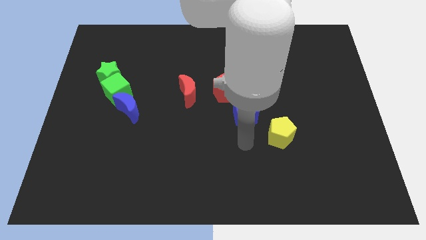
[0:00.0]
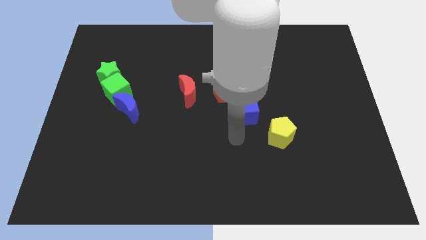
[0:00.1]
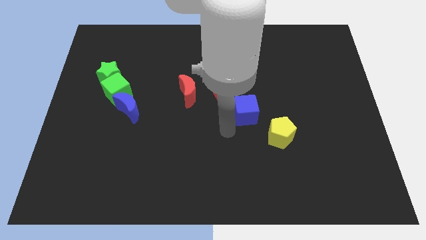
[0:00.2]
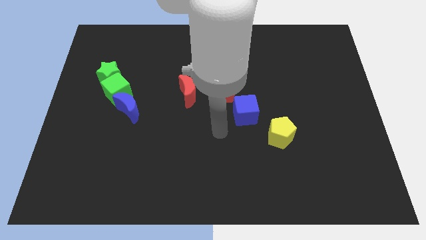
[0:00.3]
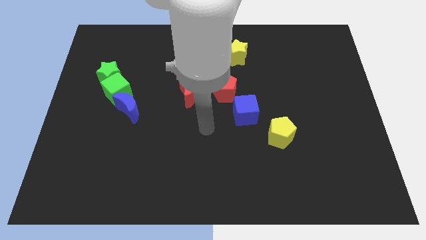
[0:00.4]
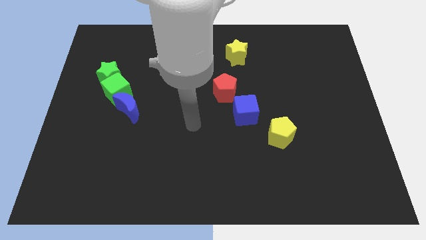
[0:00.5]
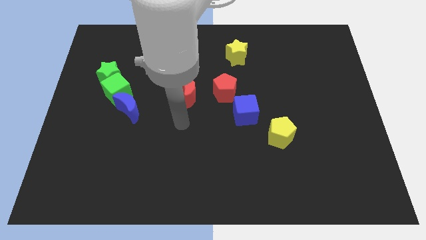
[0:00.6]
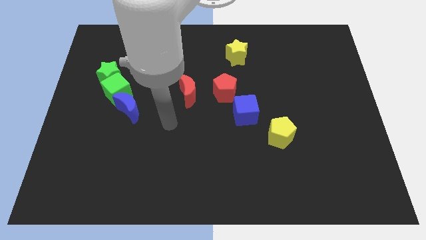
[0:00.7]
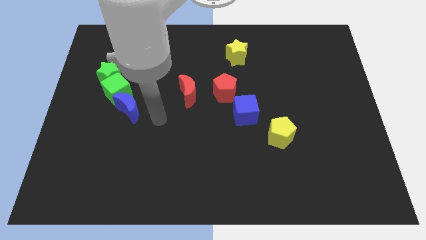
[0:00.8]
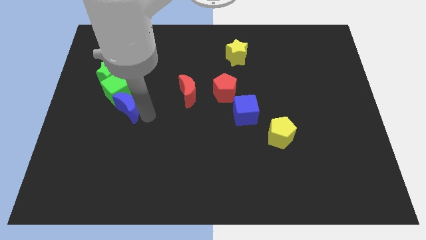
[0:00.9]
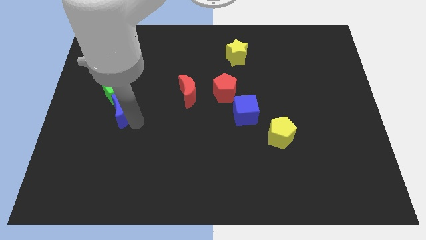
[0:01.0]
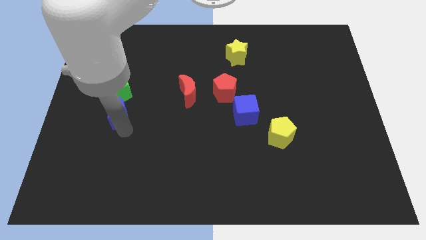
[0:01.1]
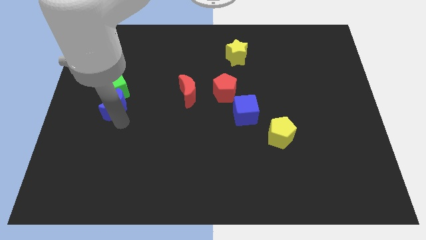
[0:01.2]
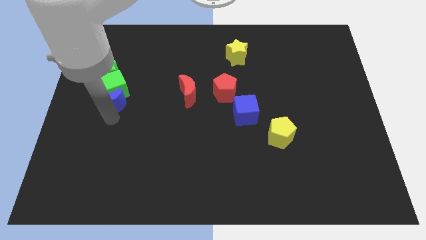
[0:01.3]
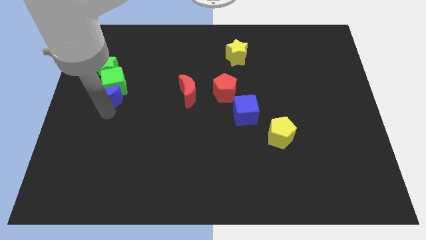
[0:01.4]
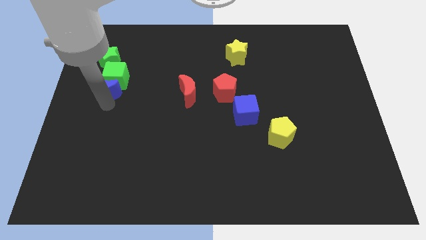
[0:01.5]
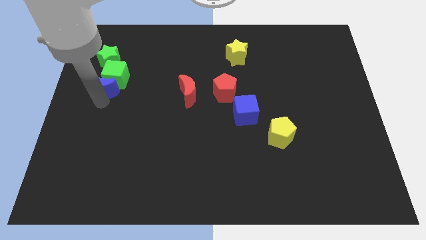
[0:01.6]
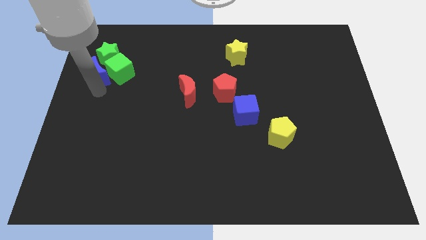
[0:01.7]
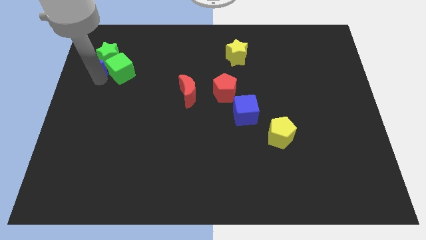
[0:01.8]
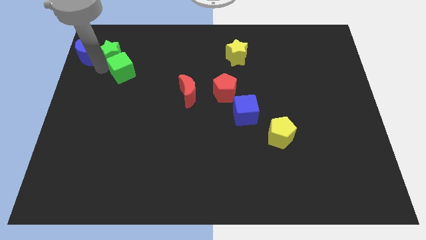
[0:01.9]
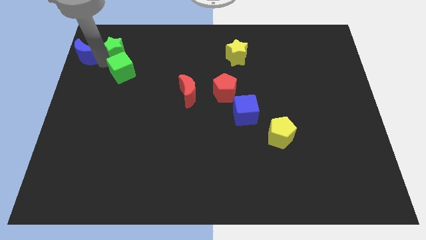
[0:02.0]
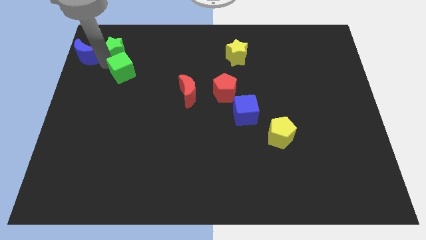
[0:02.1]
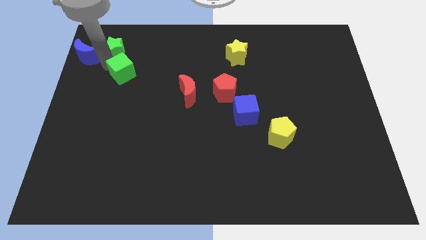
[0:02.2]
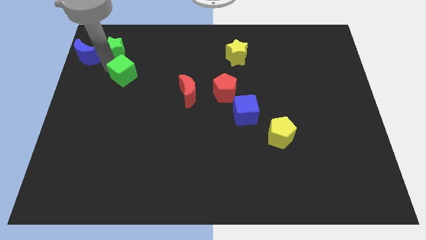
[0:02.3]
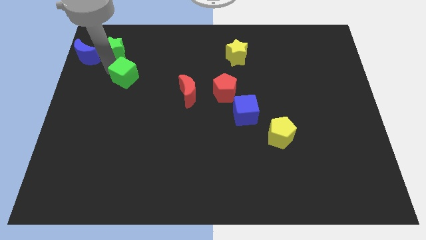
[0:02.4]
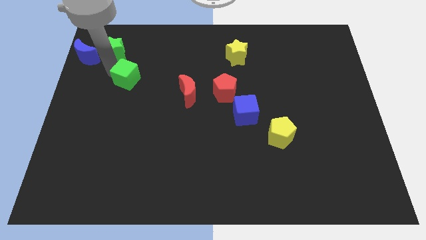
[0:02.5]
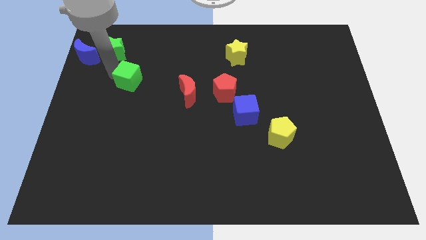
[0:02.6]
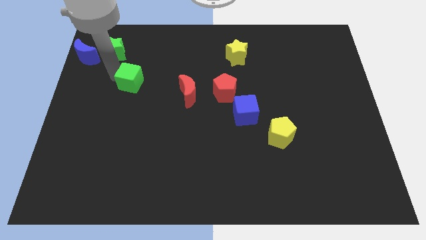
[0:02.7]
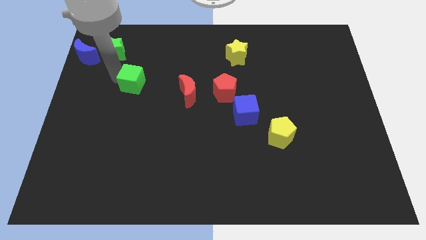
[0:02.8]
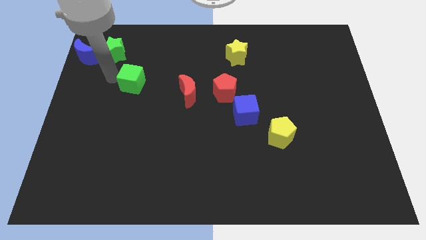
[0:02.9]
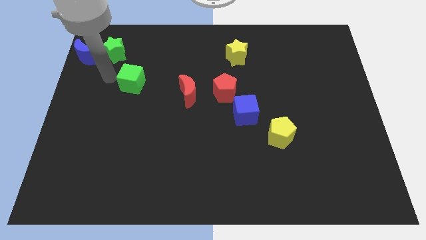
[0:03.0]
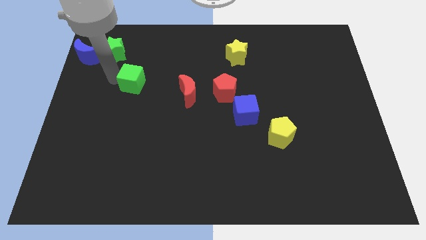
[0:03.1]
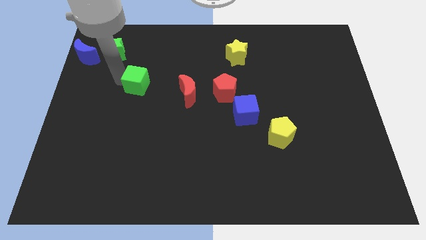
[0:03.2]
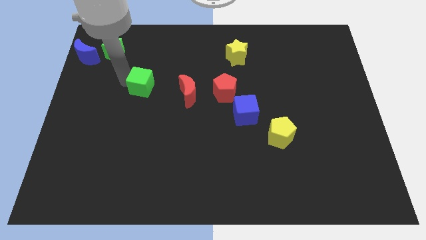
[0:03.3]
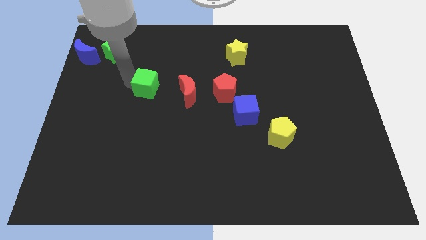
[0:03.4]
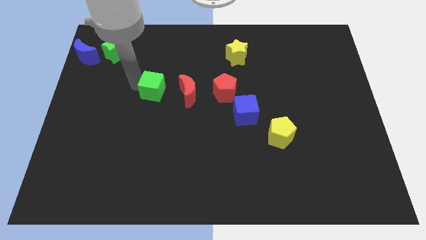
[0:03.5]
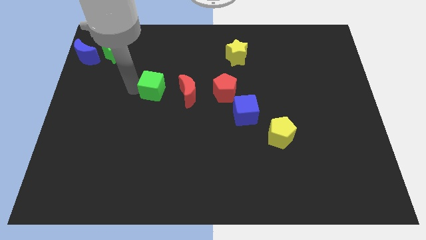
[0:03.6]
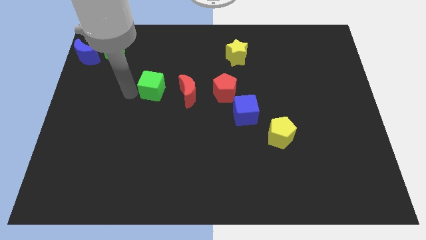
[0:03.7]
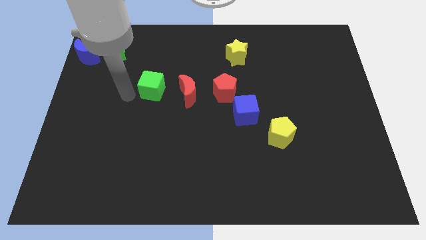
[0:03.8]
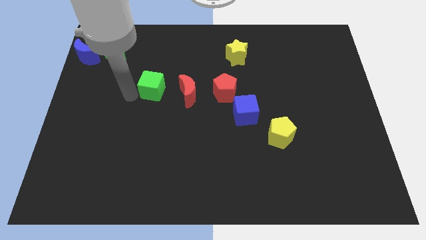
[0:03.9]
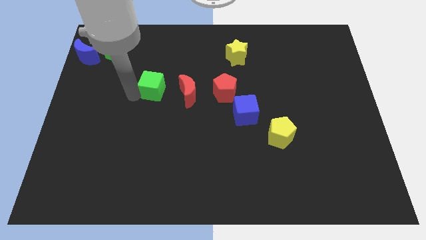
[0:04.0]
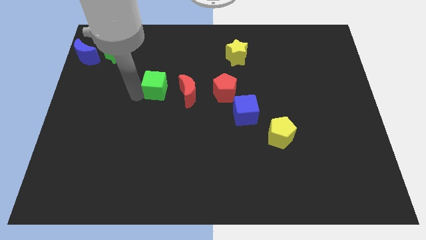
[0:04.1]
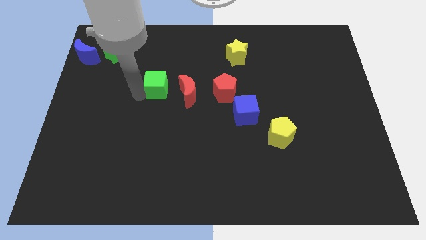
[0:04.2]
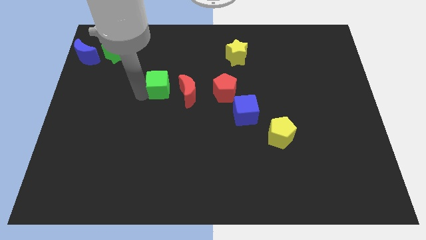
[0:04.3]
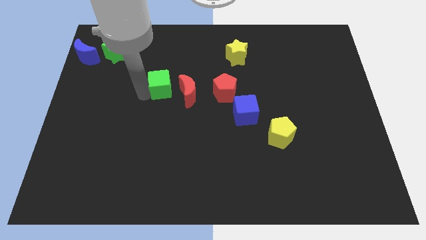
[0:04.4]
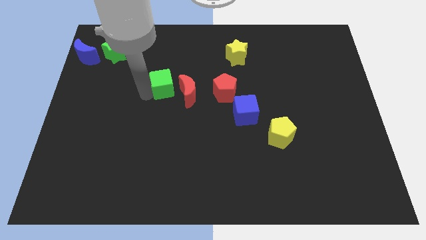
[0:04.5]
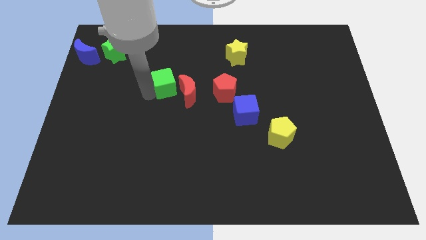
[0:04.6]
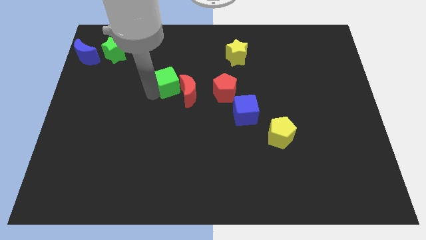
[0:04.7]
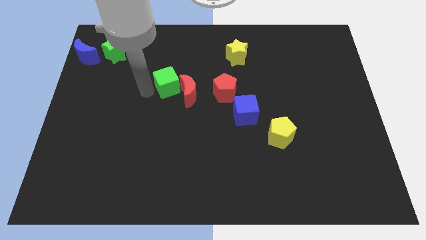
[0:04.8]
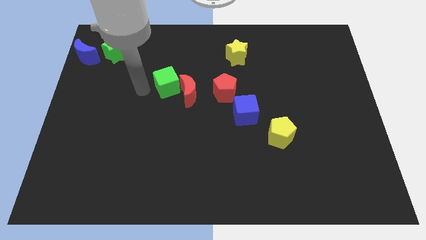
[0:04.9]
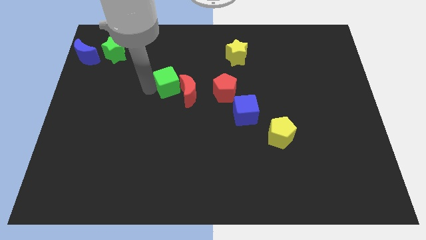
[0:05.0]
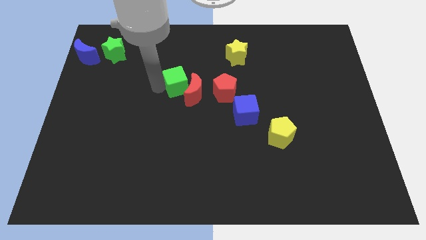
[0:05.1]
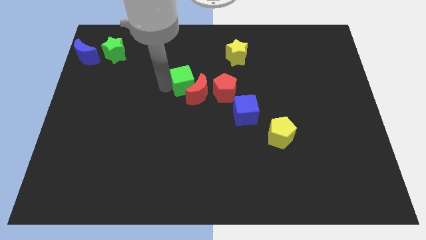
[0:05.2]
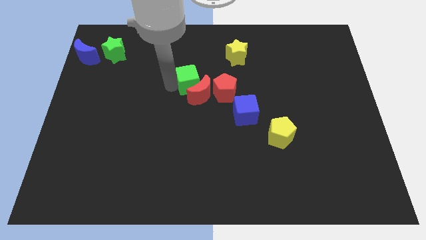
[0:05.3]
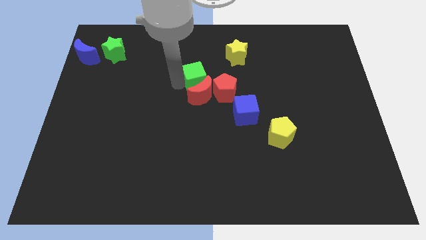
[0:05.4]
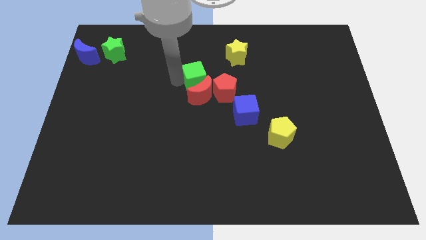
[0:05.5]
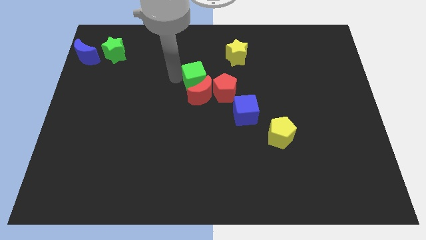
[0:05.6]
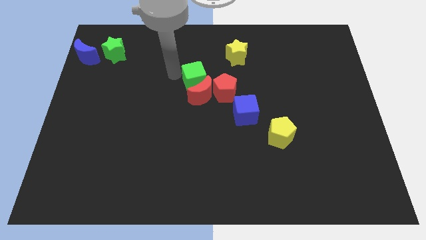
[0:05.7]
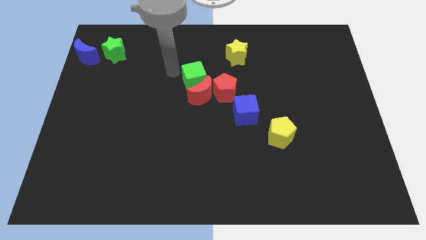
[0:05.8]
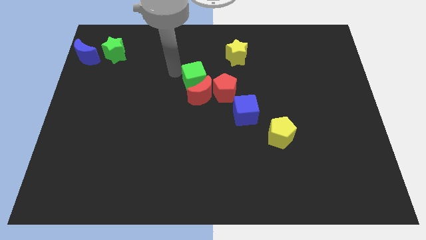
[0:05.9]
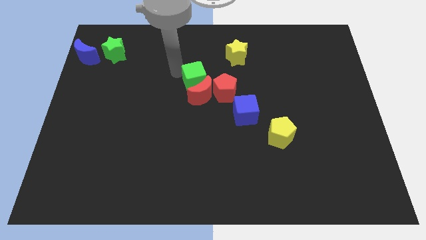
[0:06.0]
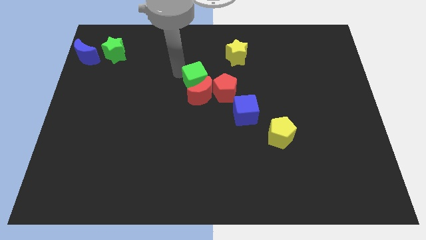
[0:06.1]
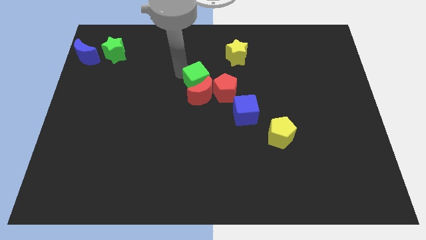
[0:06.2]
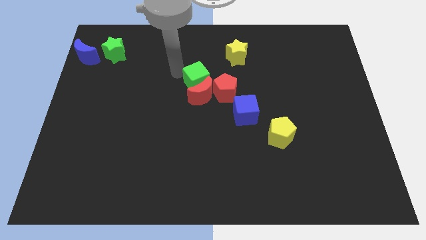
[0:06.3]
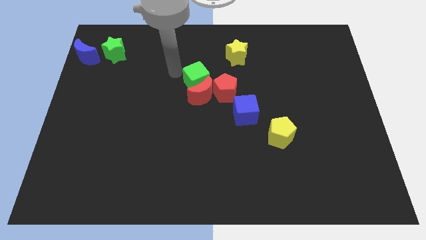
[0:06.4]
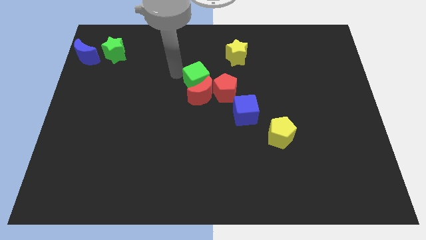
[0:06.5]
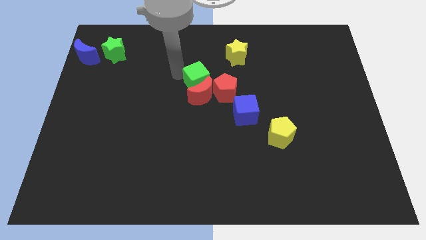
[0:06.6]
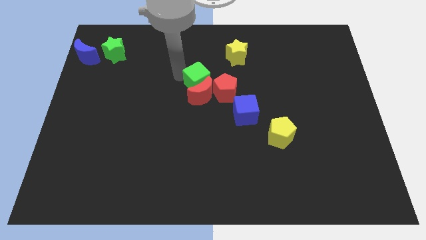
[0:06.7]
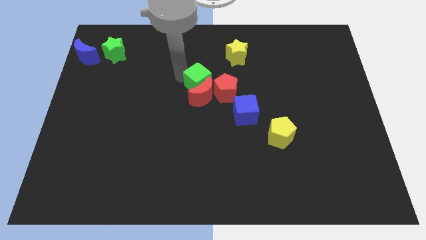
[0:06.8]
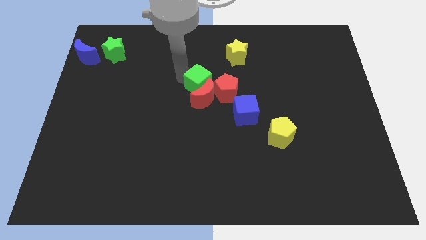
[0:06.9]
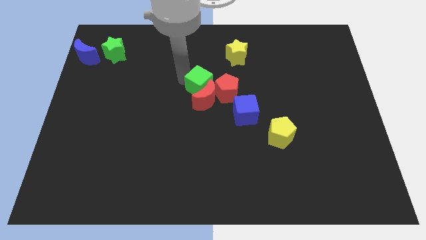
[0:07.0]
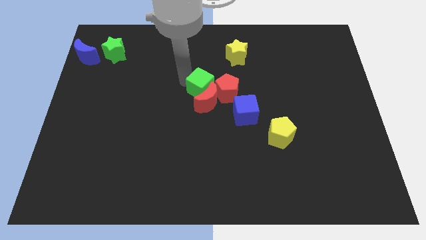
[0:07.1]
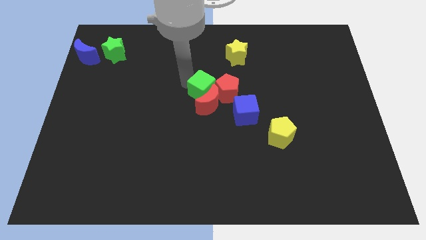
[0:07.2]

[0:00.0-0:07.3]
slide the green cube towards the red pentagon
